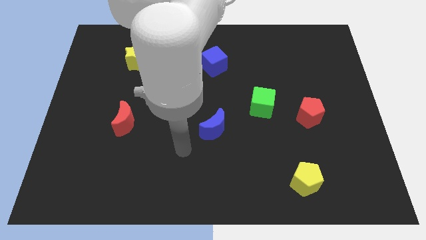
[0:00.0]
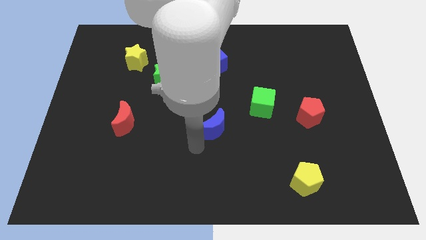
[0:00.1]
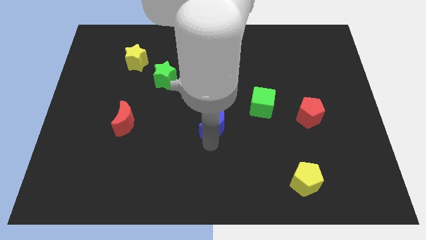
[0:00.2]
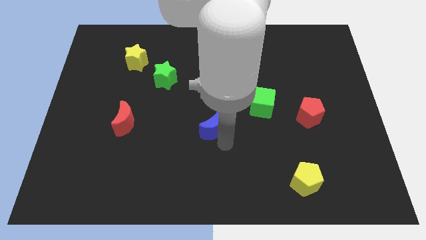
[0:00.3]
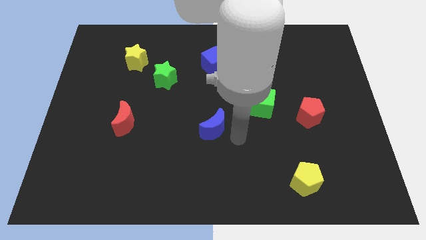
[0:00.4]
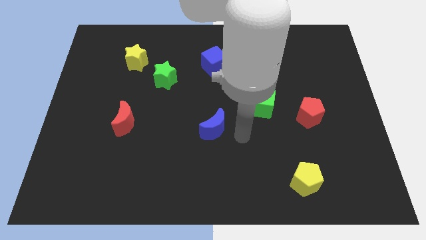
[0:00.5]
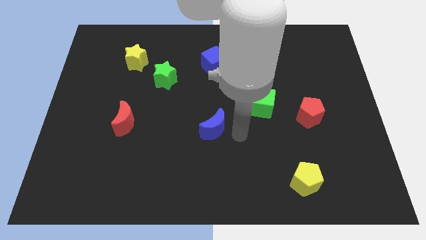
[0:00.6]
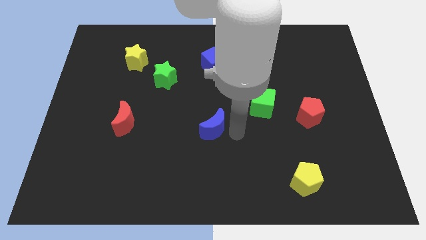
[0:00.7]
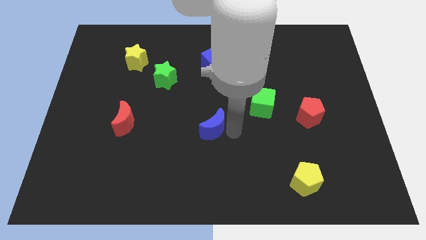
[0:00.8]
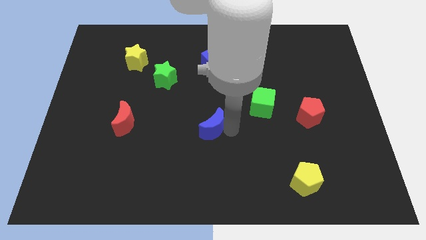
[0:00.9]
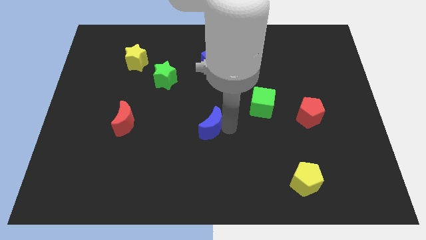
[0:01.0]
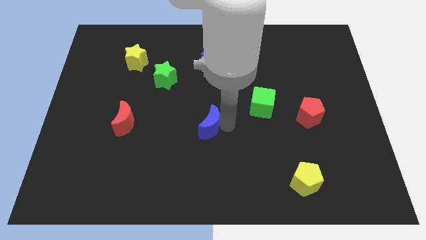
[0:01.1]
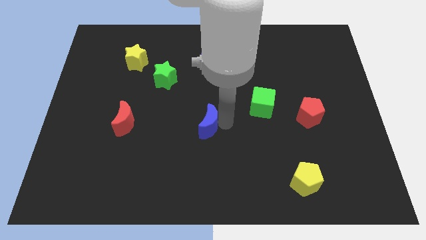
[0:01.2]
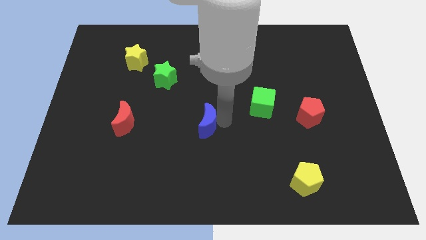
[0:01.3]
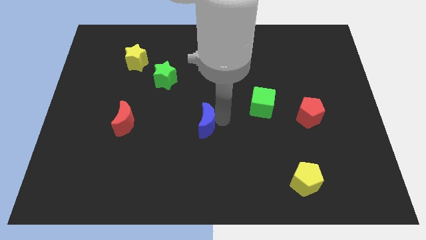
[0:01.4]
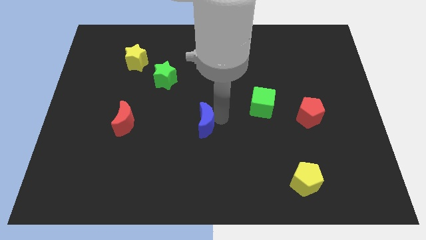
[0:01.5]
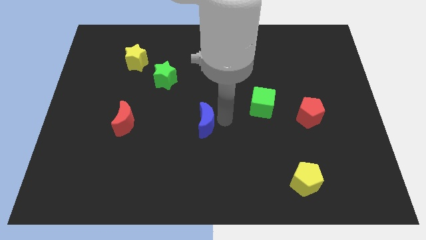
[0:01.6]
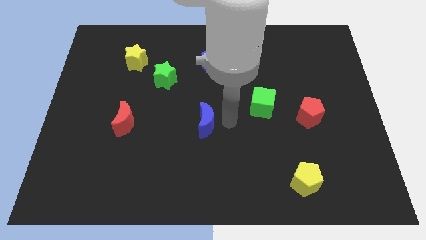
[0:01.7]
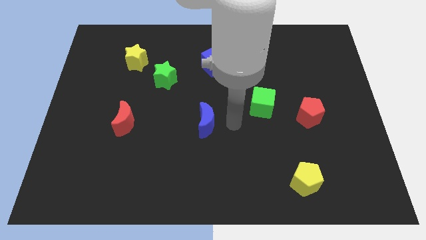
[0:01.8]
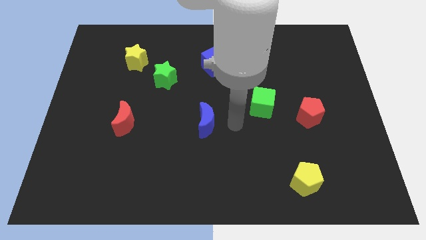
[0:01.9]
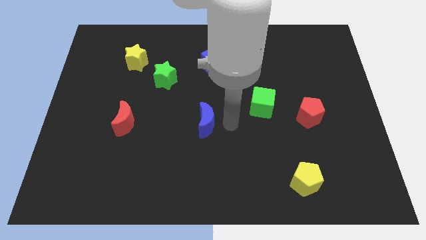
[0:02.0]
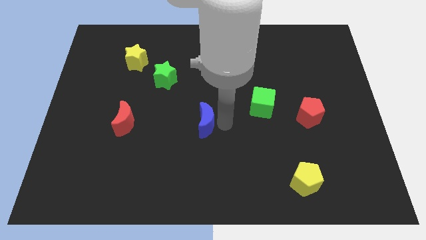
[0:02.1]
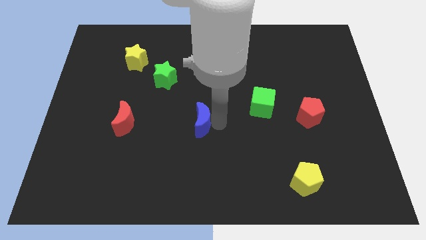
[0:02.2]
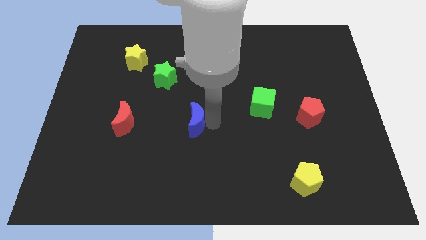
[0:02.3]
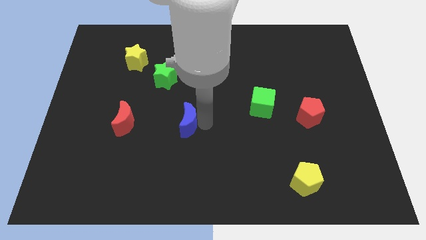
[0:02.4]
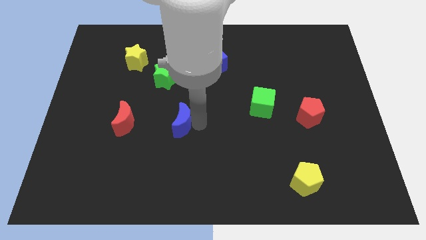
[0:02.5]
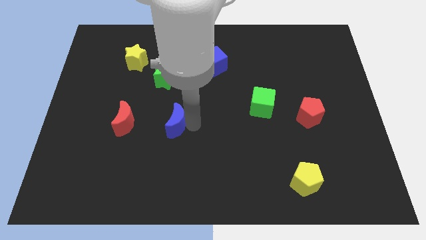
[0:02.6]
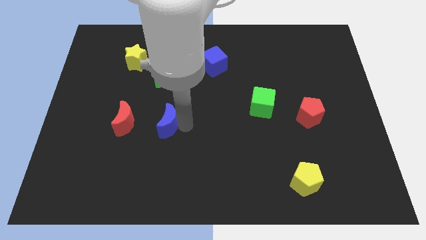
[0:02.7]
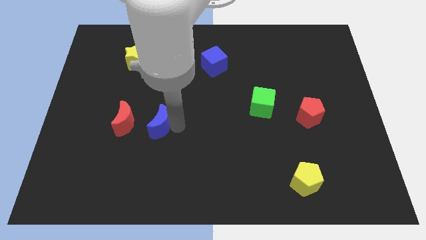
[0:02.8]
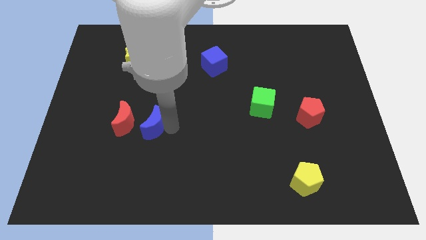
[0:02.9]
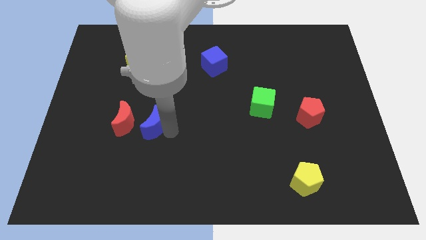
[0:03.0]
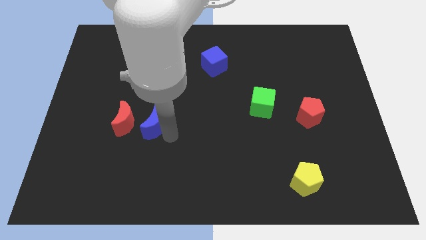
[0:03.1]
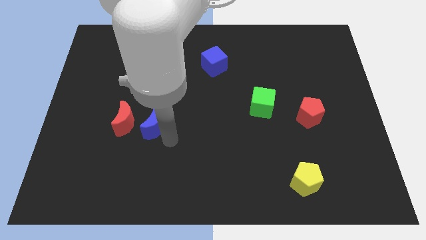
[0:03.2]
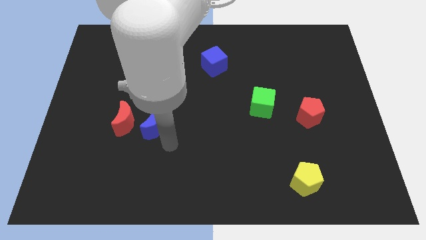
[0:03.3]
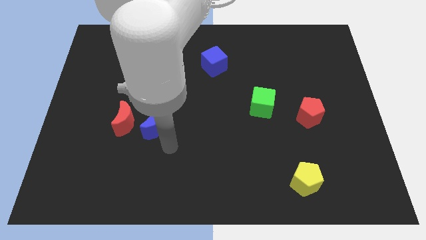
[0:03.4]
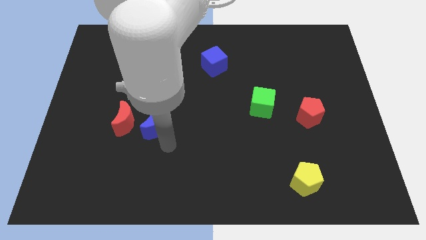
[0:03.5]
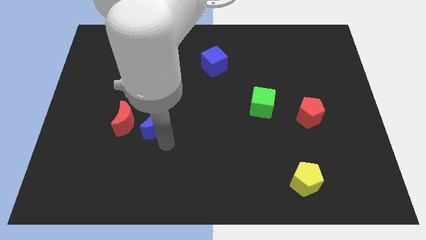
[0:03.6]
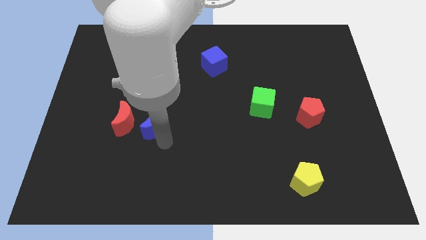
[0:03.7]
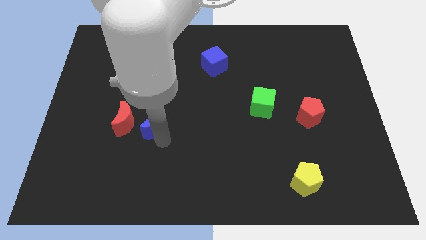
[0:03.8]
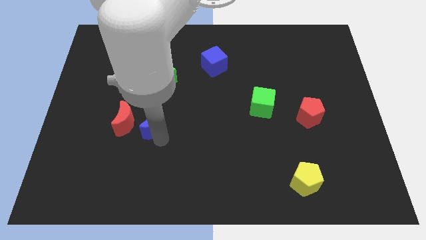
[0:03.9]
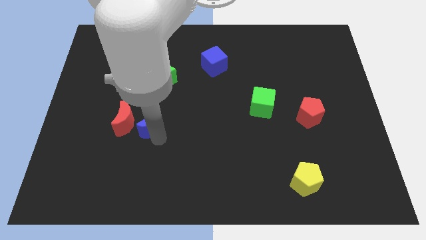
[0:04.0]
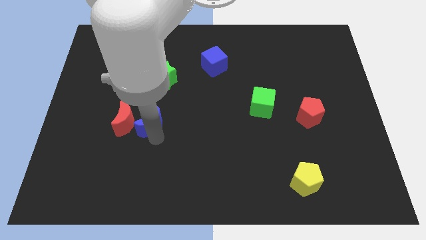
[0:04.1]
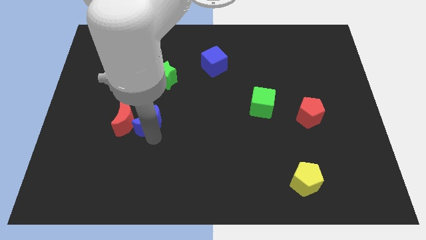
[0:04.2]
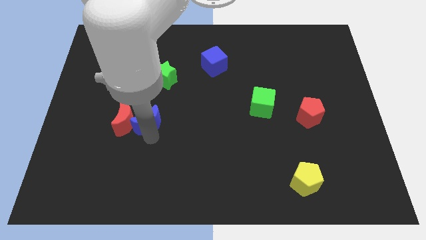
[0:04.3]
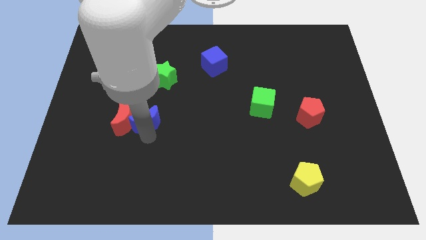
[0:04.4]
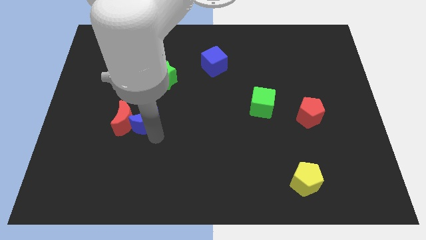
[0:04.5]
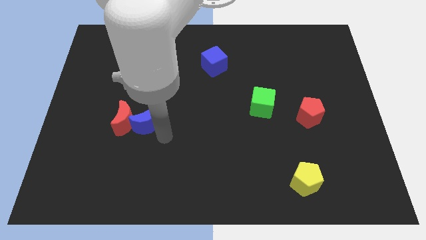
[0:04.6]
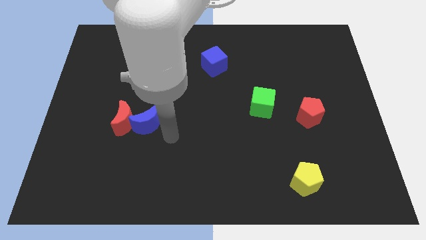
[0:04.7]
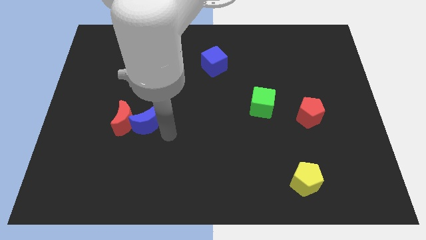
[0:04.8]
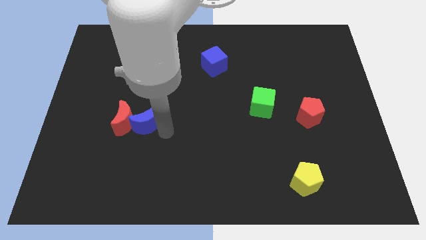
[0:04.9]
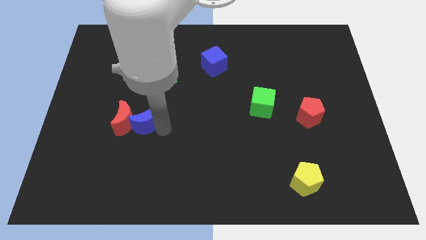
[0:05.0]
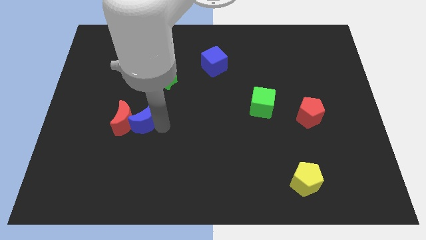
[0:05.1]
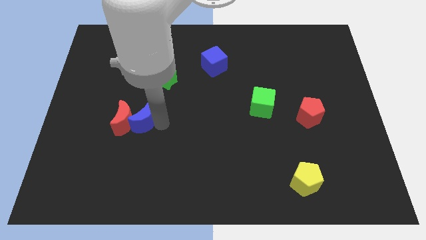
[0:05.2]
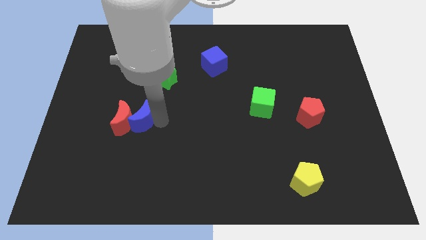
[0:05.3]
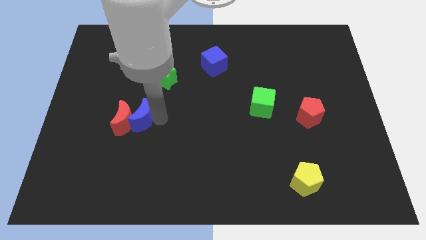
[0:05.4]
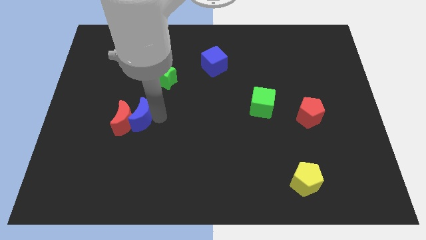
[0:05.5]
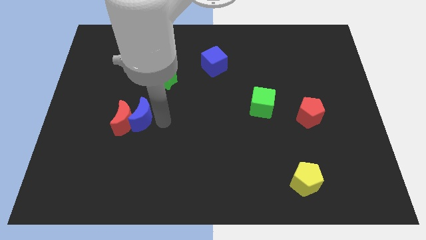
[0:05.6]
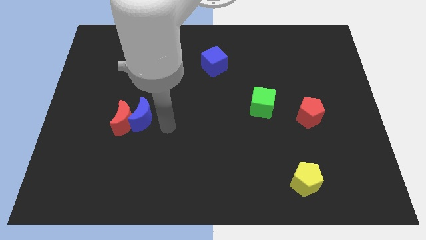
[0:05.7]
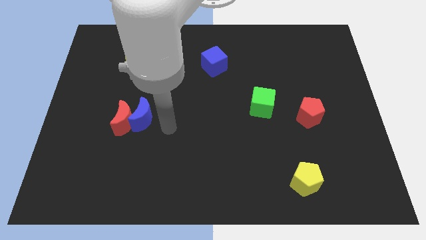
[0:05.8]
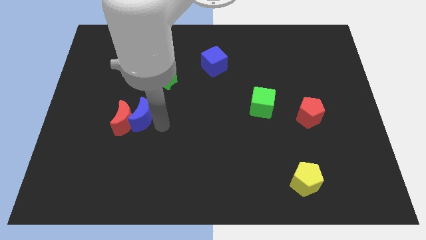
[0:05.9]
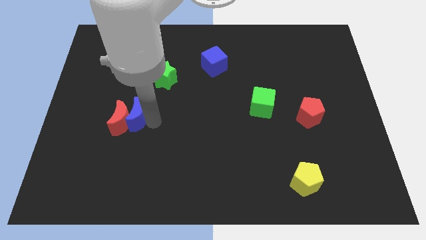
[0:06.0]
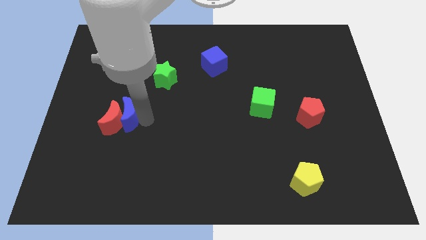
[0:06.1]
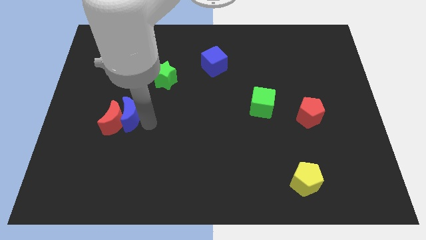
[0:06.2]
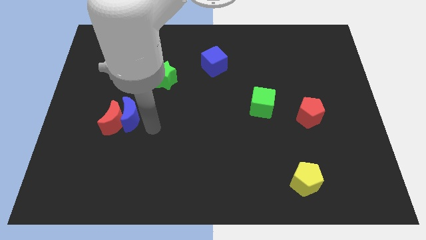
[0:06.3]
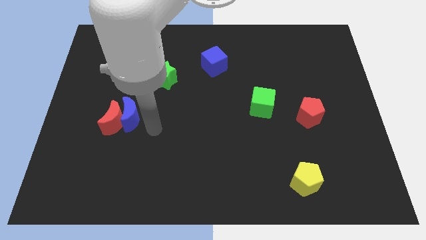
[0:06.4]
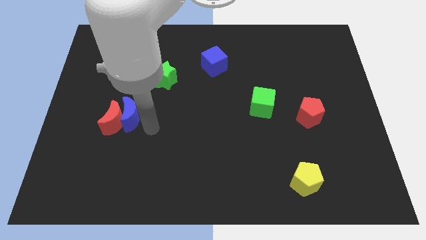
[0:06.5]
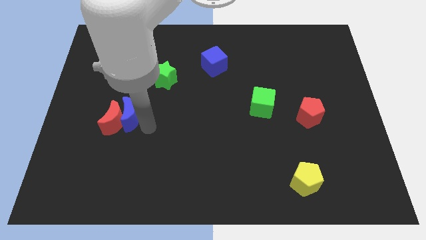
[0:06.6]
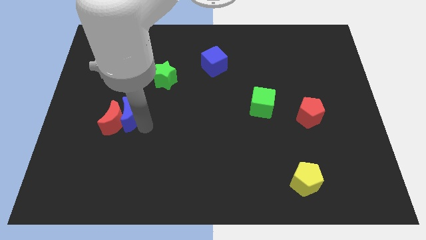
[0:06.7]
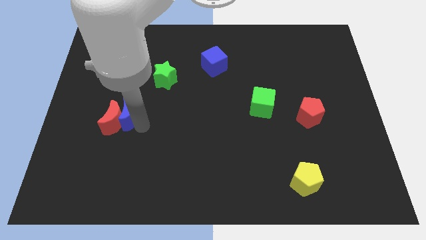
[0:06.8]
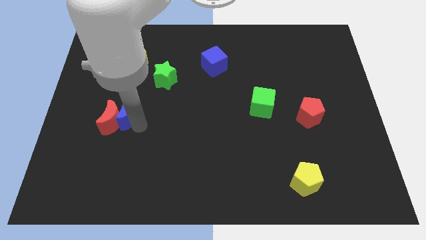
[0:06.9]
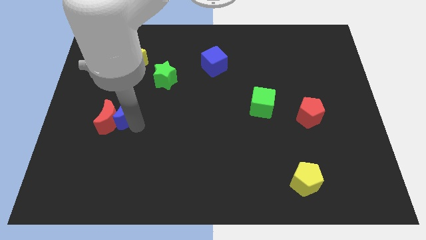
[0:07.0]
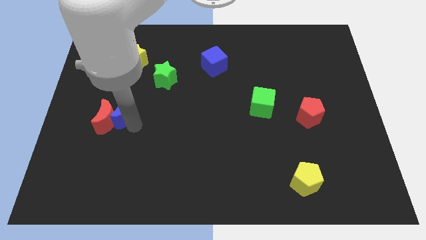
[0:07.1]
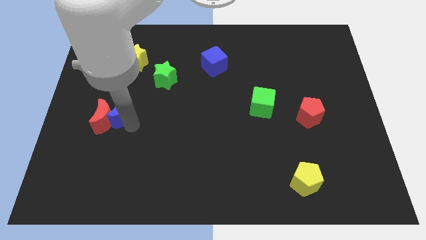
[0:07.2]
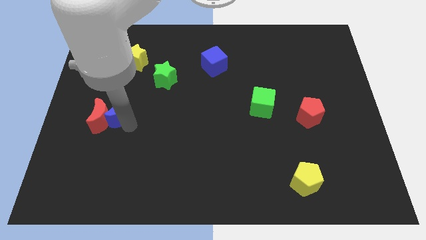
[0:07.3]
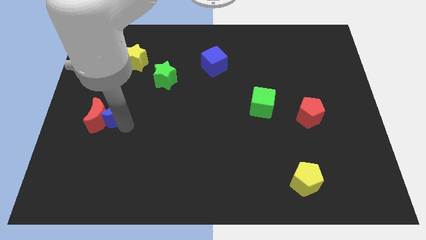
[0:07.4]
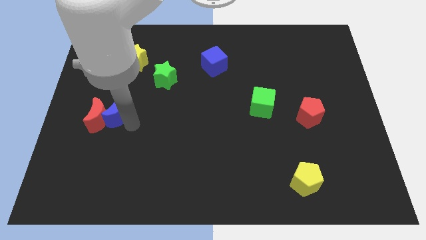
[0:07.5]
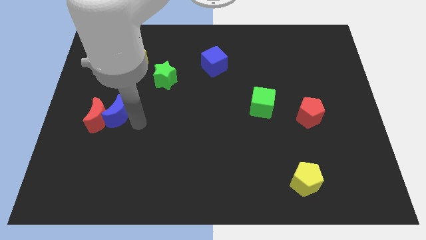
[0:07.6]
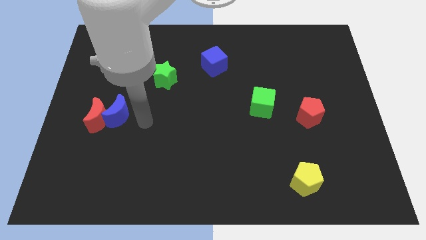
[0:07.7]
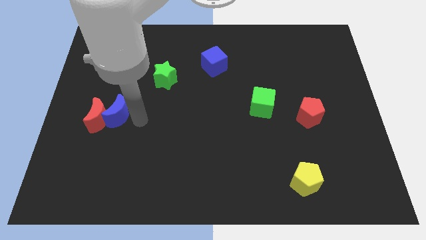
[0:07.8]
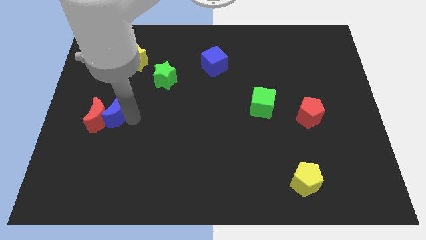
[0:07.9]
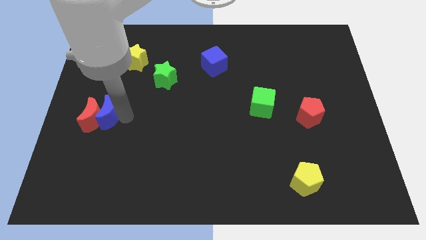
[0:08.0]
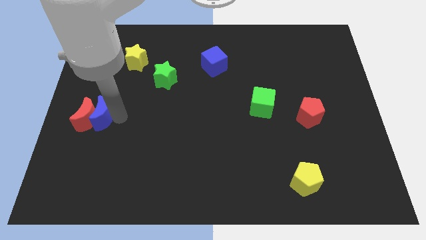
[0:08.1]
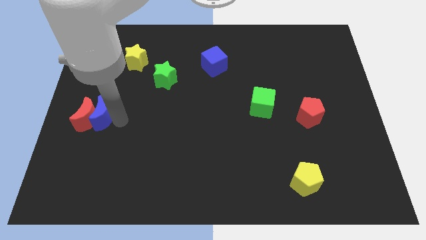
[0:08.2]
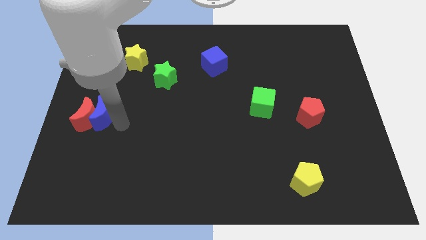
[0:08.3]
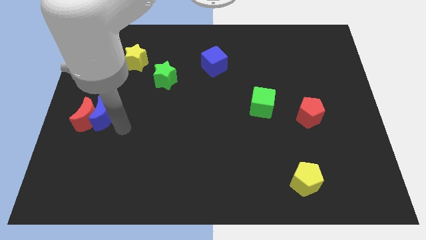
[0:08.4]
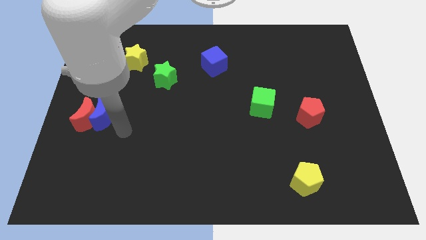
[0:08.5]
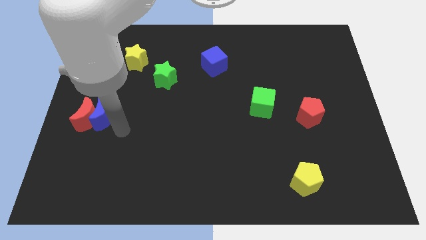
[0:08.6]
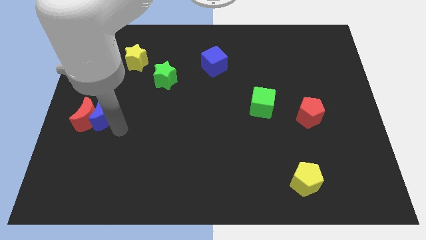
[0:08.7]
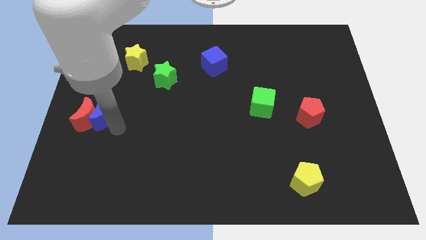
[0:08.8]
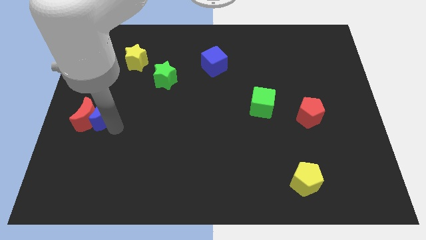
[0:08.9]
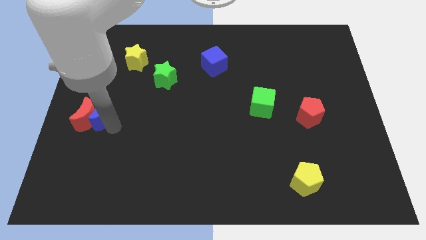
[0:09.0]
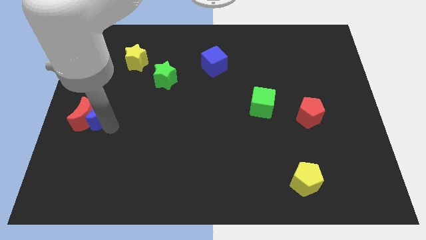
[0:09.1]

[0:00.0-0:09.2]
put the blue moon to the left side
